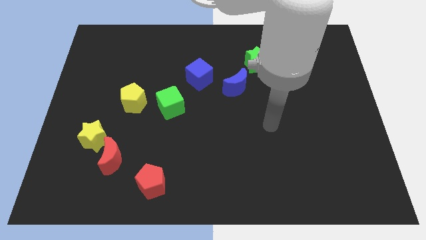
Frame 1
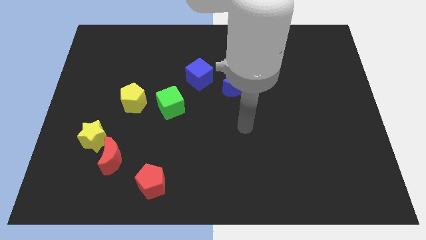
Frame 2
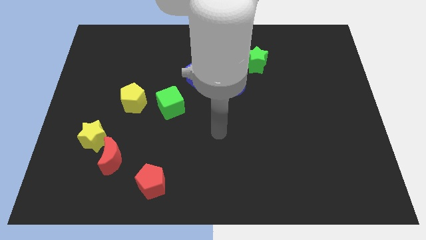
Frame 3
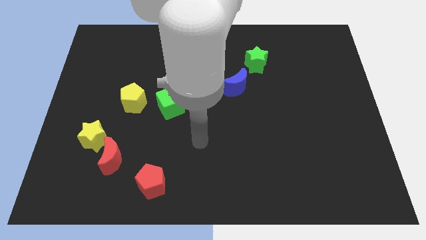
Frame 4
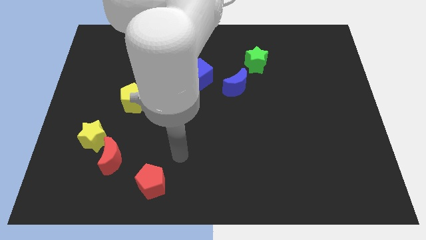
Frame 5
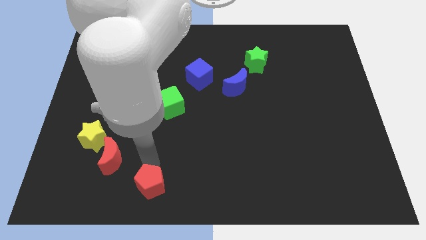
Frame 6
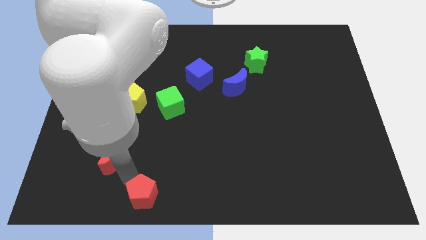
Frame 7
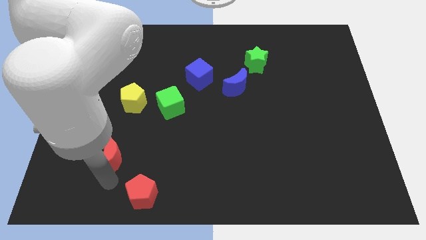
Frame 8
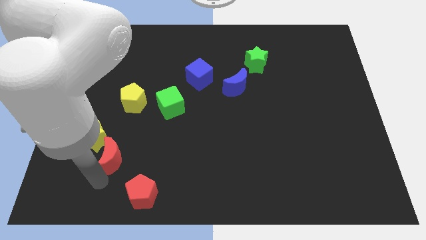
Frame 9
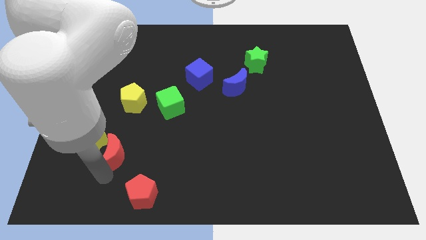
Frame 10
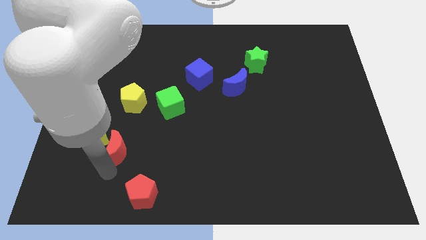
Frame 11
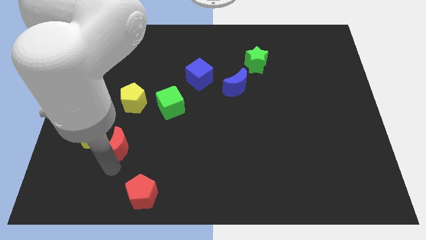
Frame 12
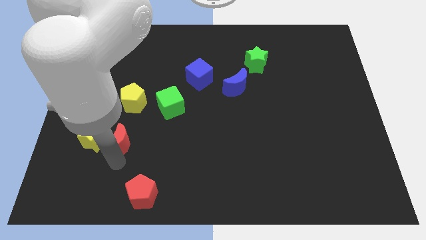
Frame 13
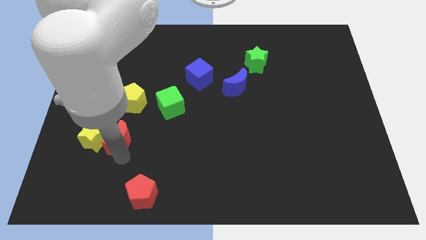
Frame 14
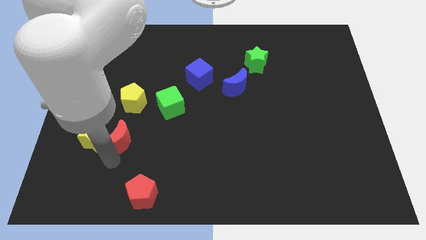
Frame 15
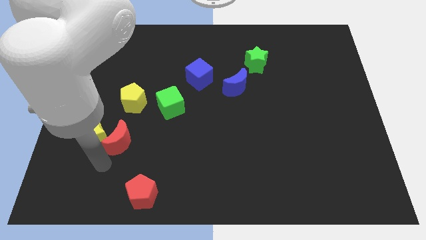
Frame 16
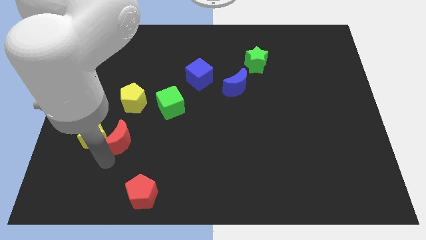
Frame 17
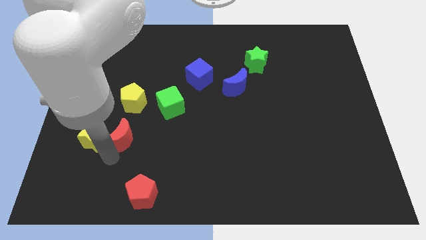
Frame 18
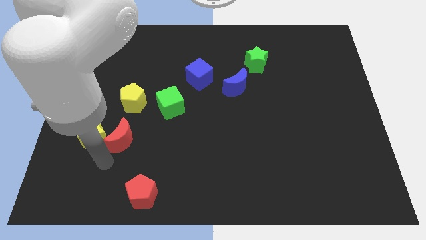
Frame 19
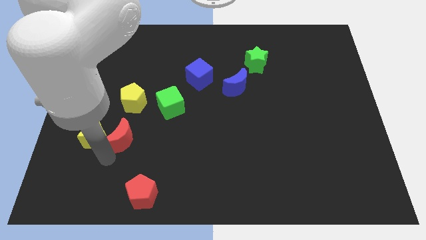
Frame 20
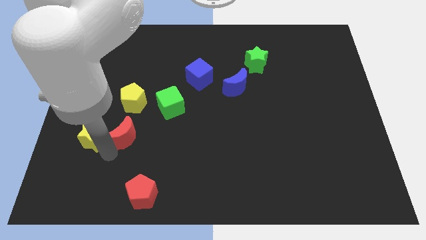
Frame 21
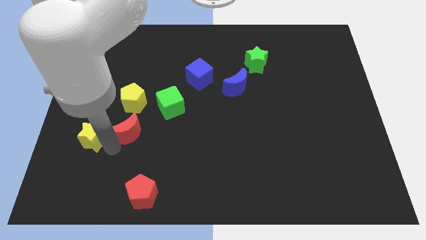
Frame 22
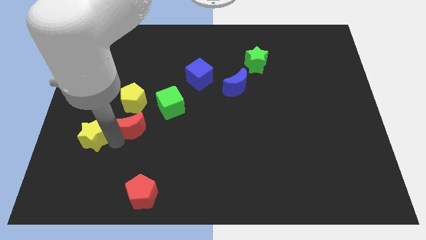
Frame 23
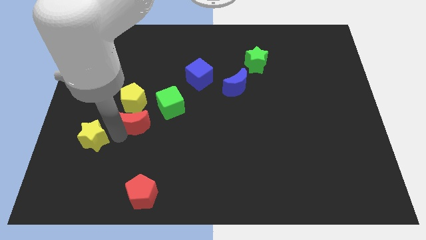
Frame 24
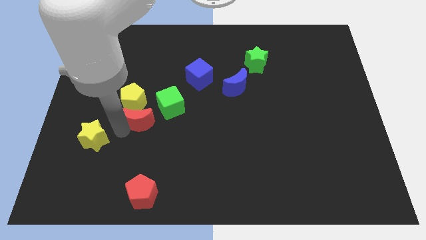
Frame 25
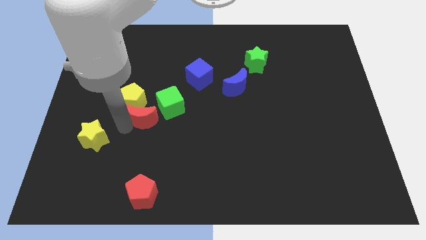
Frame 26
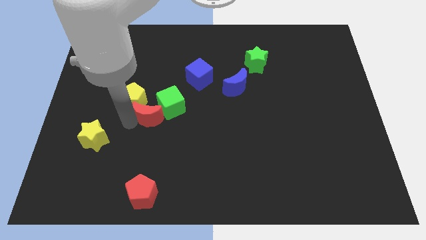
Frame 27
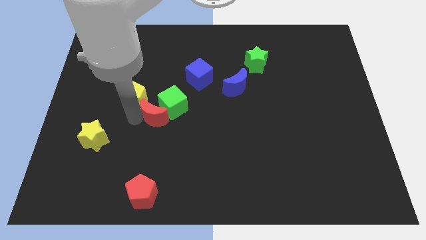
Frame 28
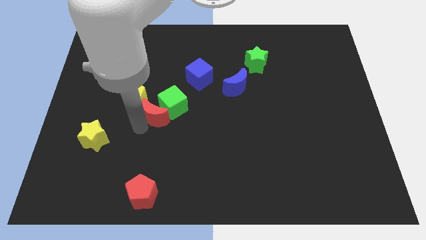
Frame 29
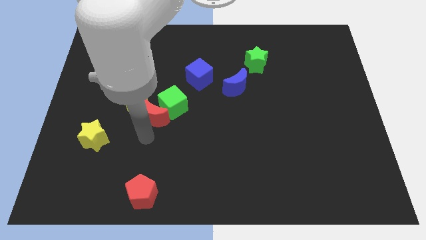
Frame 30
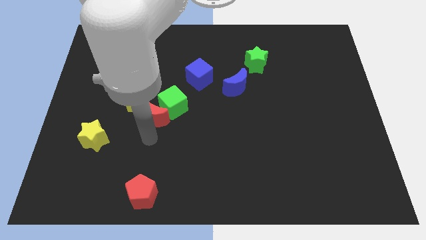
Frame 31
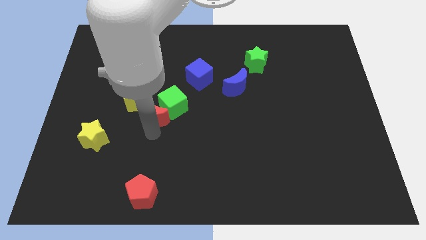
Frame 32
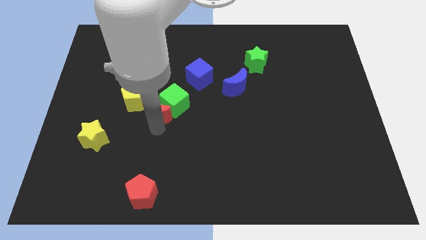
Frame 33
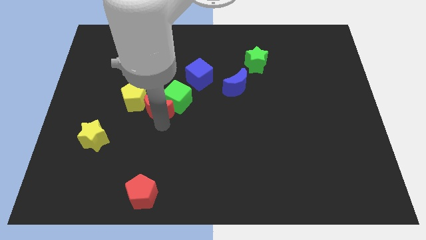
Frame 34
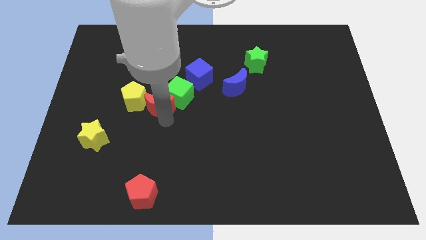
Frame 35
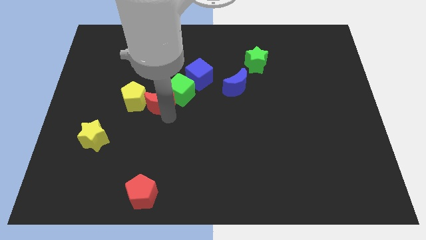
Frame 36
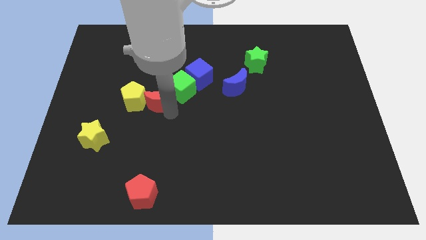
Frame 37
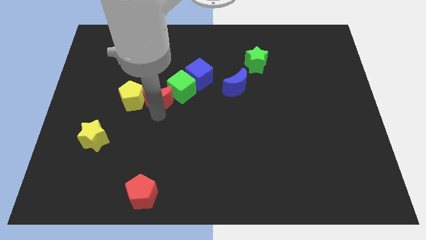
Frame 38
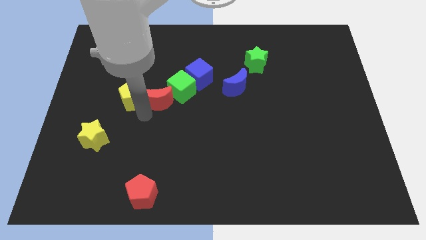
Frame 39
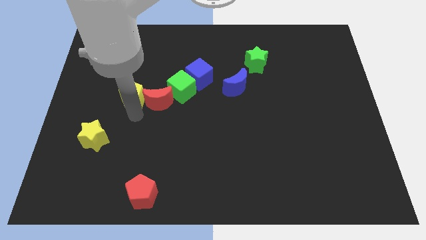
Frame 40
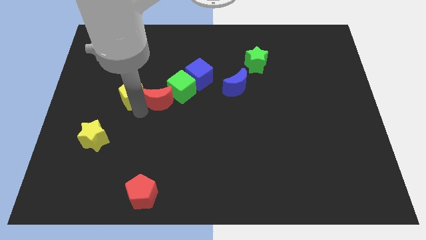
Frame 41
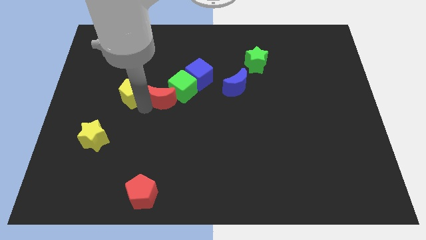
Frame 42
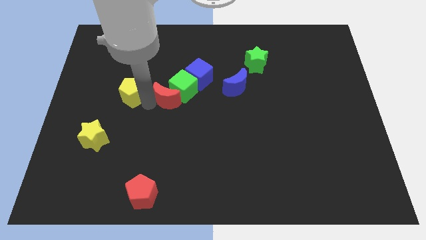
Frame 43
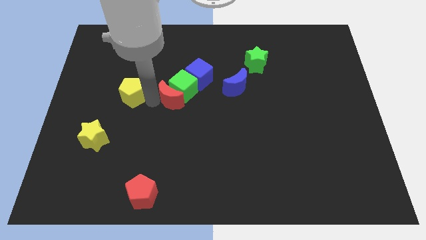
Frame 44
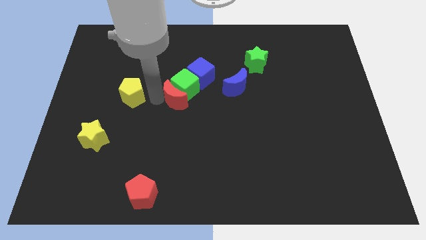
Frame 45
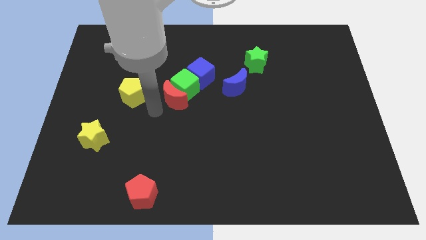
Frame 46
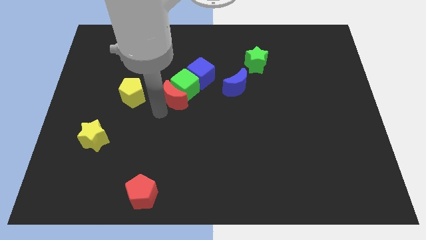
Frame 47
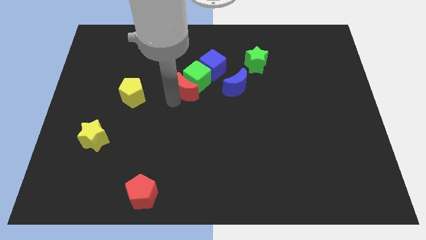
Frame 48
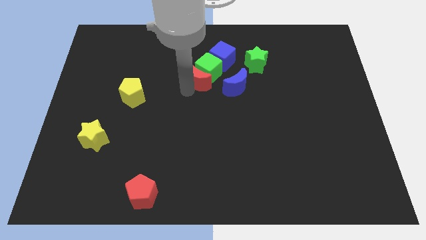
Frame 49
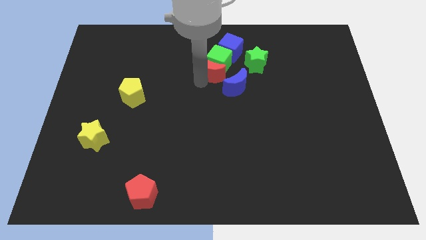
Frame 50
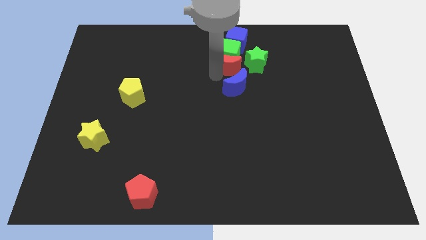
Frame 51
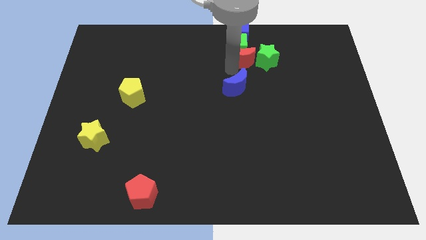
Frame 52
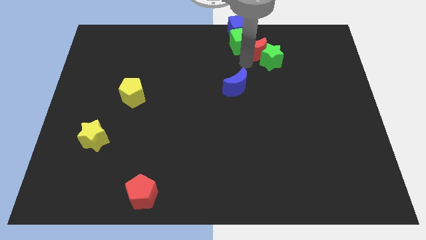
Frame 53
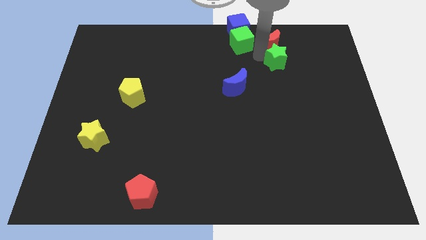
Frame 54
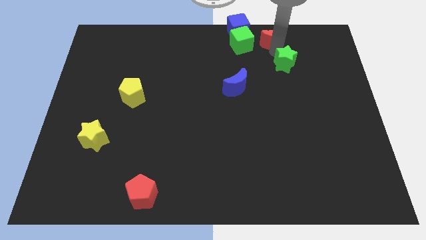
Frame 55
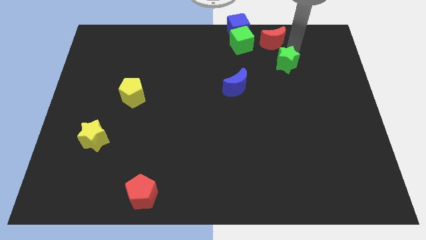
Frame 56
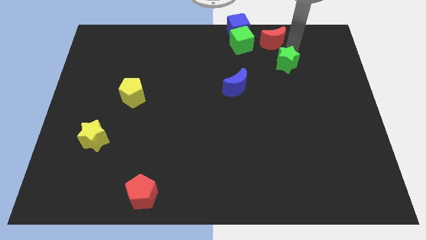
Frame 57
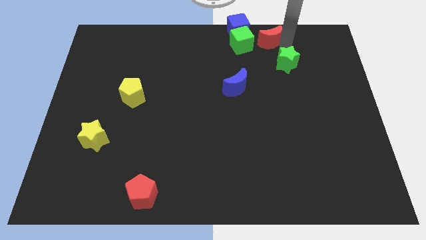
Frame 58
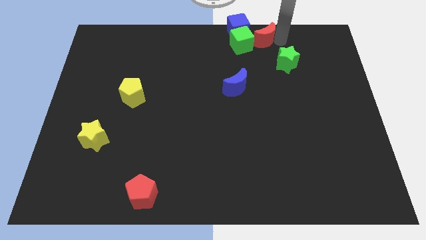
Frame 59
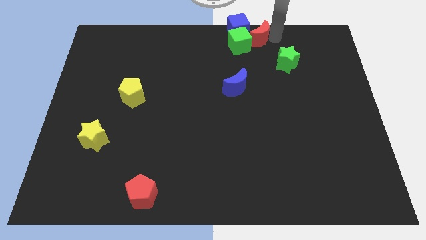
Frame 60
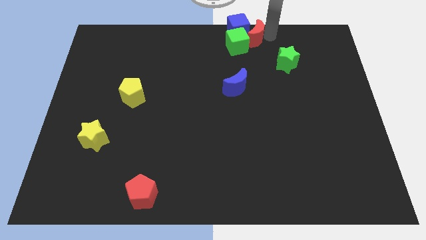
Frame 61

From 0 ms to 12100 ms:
push the red moon towards the blue cube

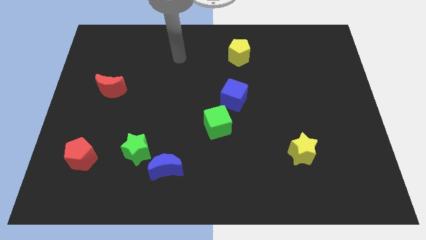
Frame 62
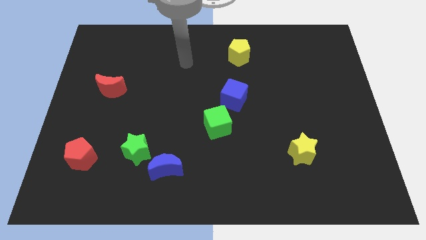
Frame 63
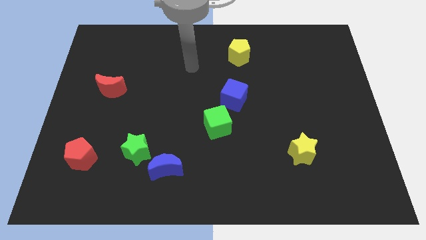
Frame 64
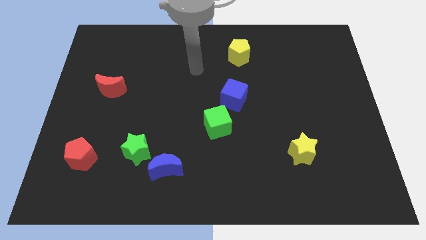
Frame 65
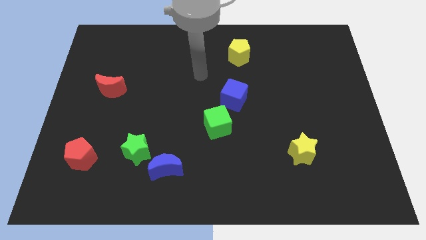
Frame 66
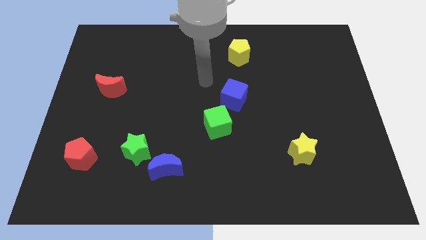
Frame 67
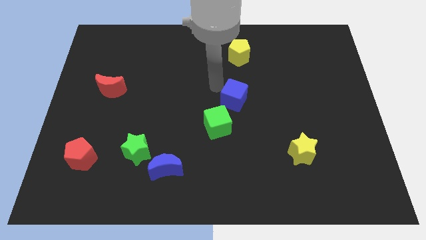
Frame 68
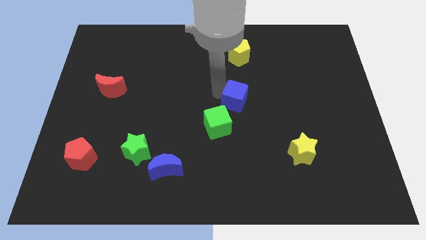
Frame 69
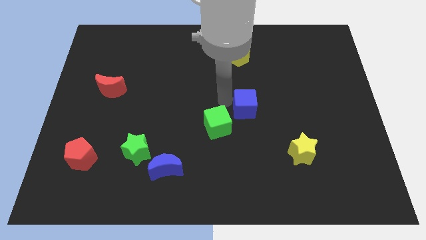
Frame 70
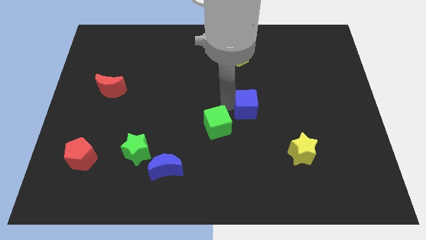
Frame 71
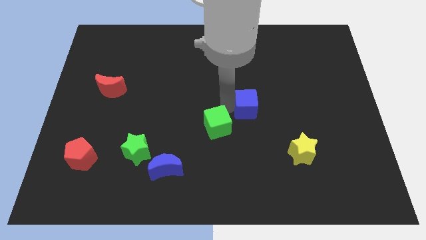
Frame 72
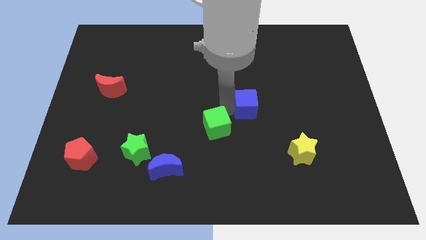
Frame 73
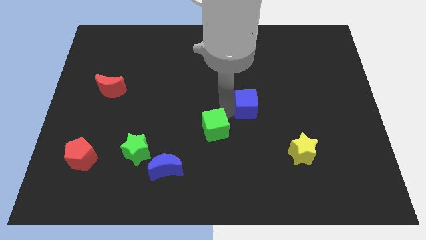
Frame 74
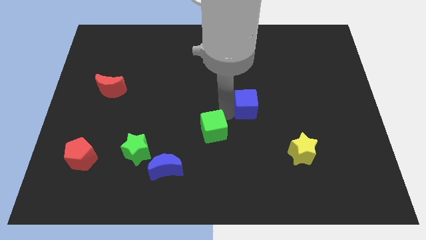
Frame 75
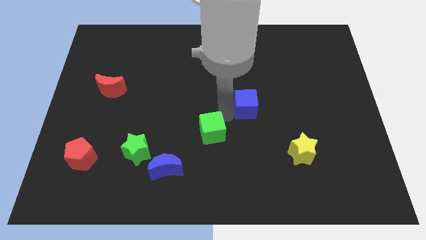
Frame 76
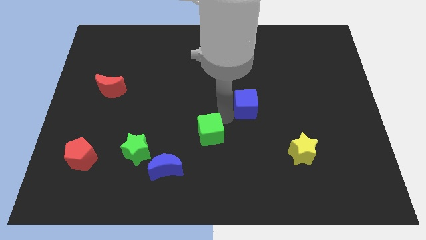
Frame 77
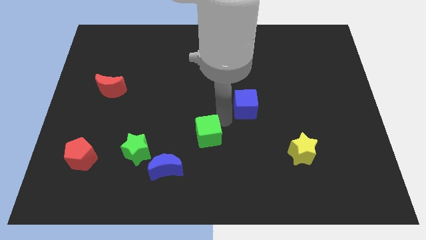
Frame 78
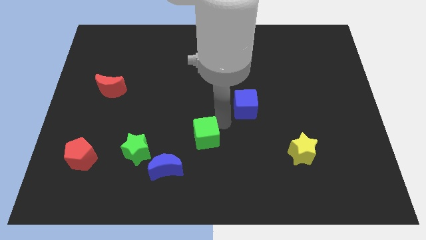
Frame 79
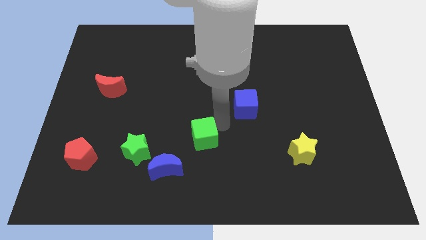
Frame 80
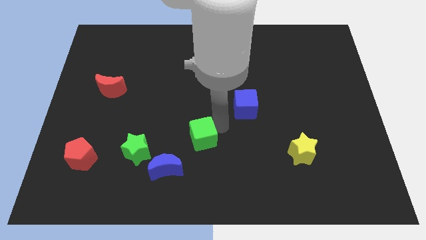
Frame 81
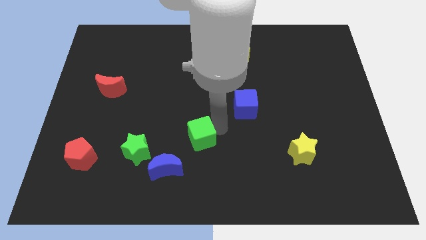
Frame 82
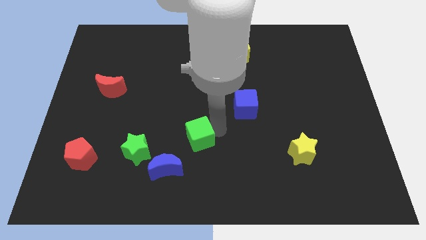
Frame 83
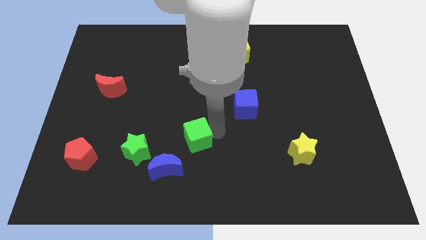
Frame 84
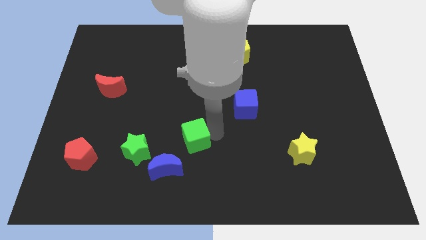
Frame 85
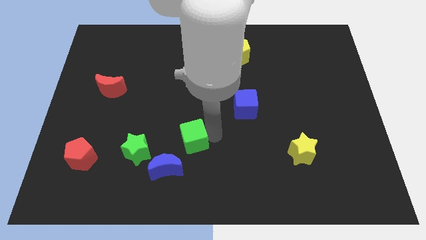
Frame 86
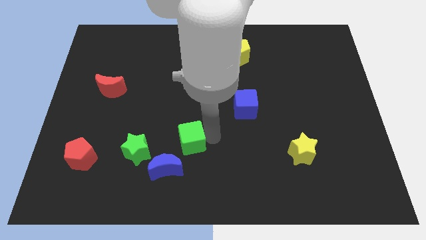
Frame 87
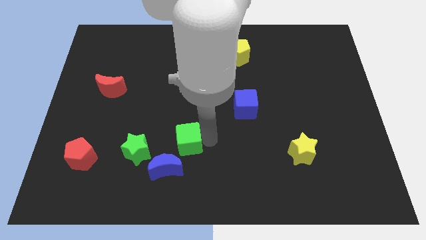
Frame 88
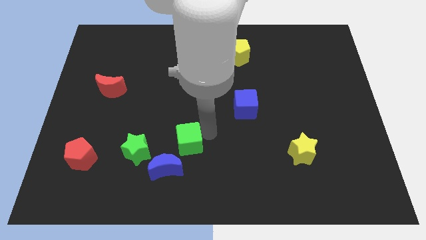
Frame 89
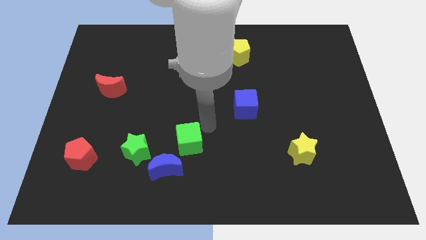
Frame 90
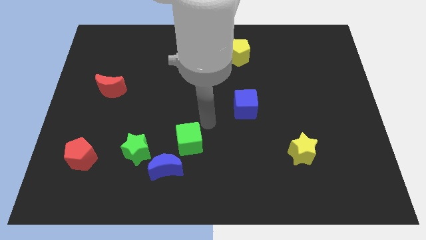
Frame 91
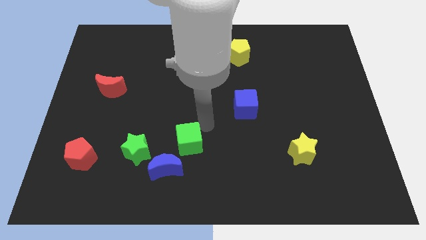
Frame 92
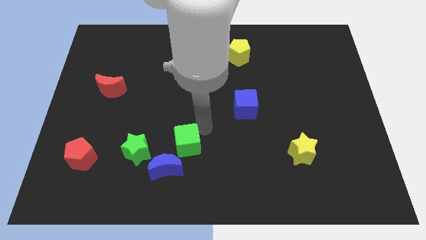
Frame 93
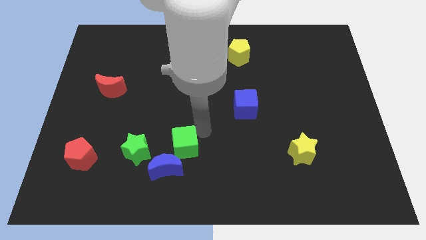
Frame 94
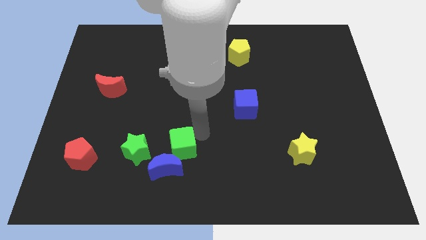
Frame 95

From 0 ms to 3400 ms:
move the green cube next to the blue moon
